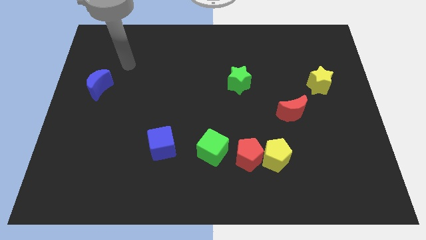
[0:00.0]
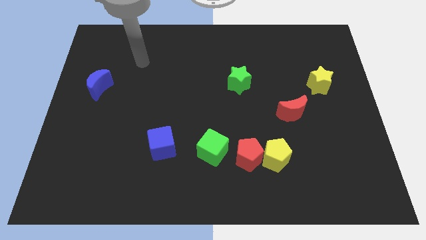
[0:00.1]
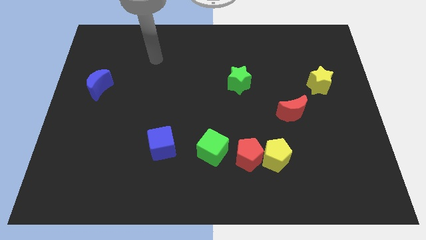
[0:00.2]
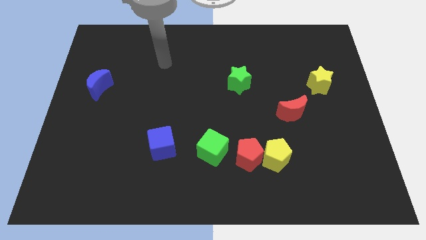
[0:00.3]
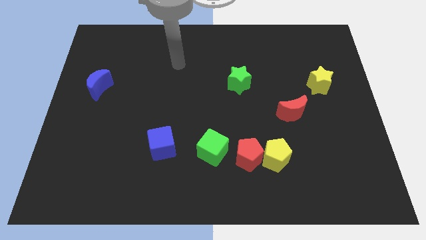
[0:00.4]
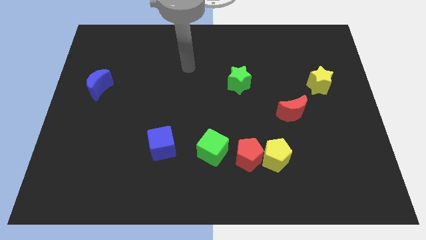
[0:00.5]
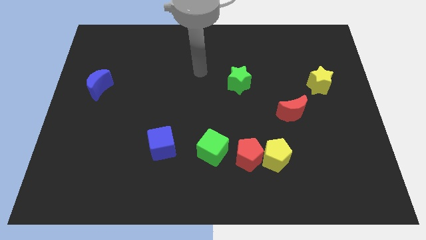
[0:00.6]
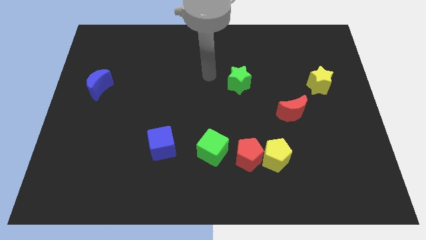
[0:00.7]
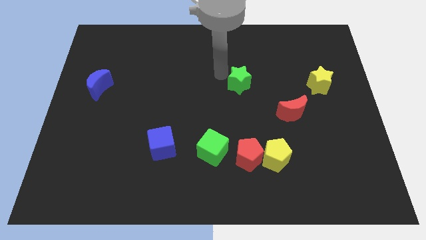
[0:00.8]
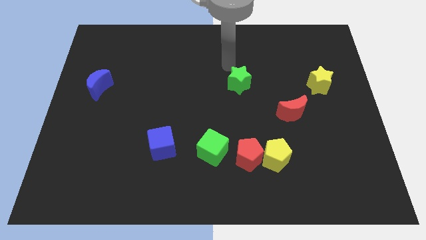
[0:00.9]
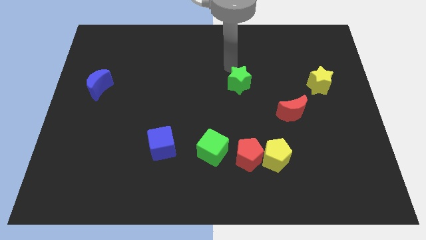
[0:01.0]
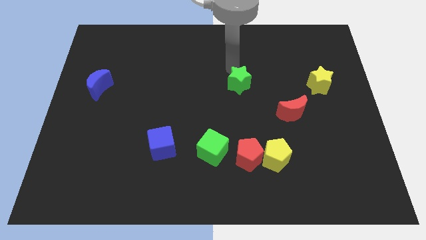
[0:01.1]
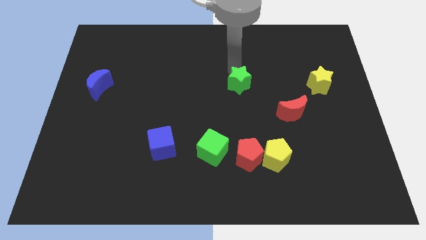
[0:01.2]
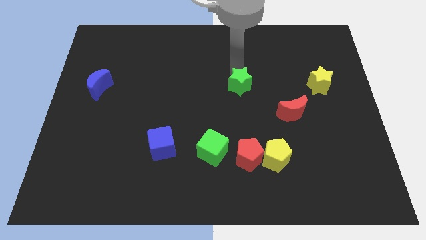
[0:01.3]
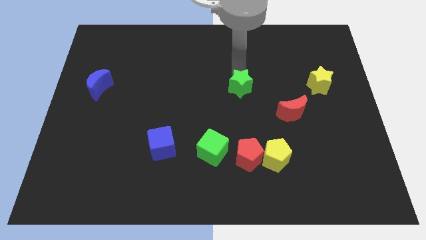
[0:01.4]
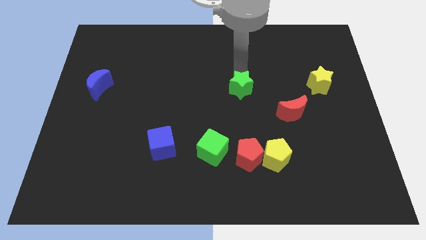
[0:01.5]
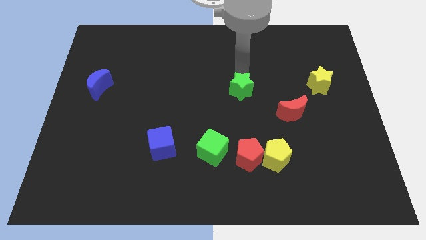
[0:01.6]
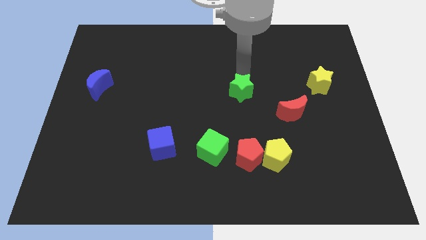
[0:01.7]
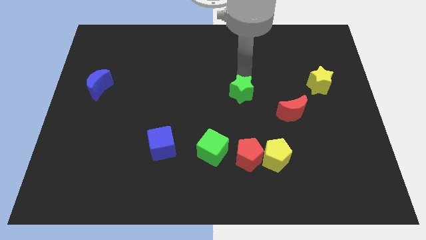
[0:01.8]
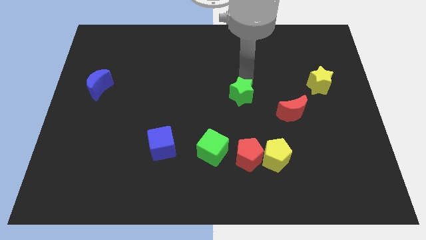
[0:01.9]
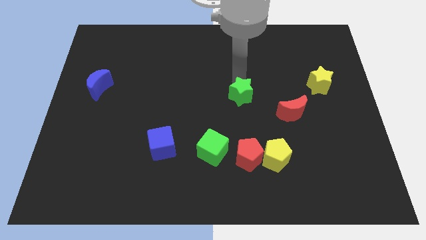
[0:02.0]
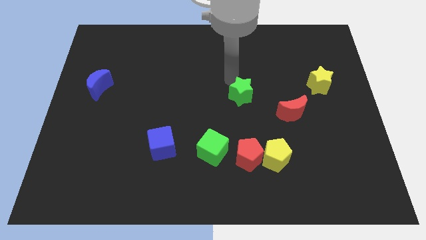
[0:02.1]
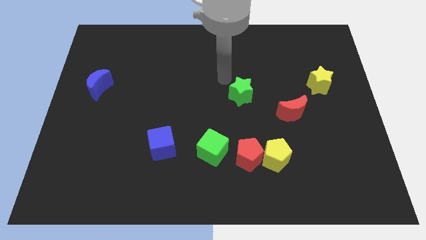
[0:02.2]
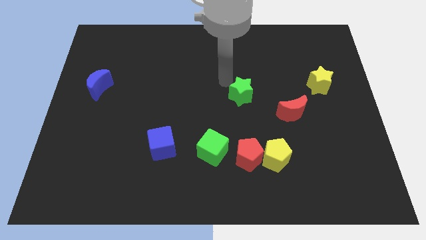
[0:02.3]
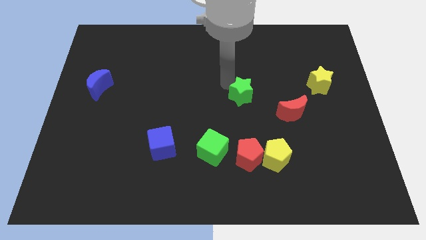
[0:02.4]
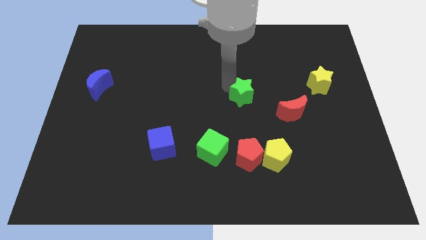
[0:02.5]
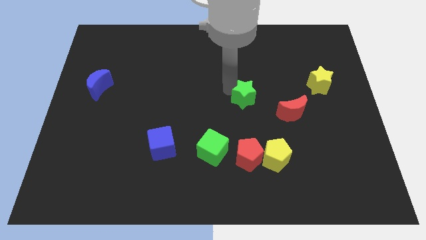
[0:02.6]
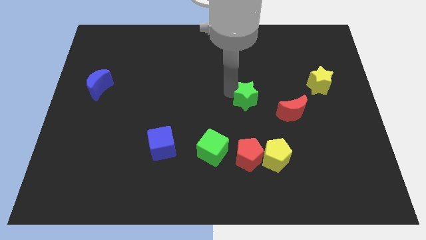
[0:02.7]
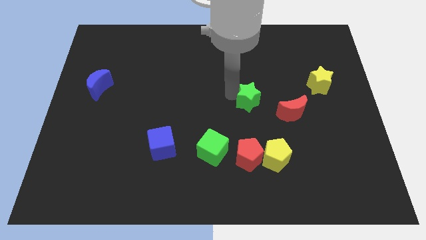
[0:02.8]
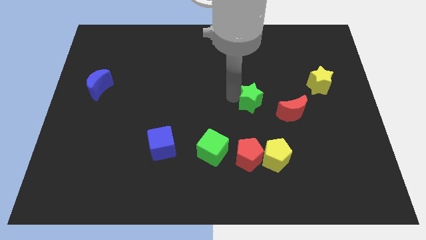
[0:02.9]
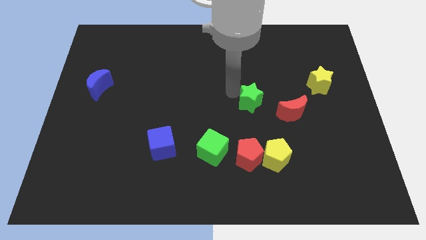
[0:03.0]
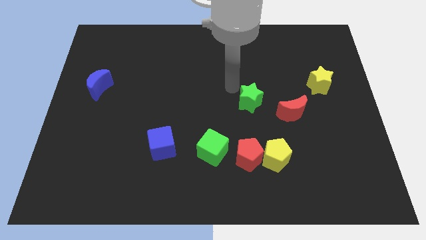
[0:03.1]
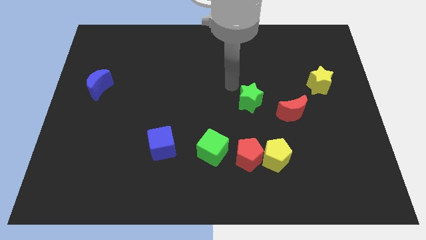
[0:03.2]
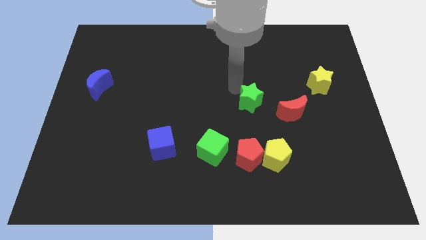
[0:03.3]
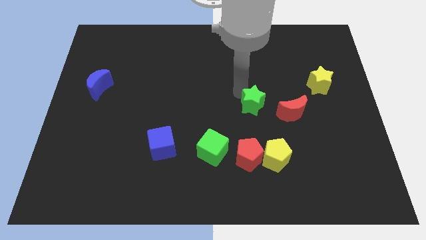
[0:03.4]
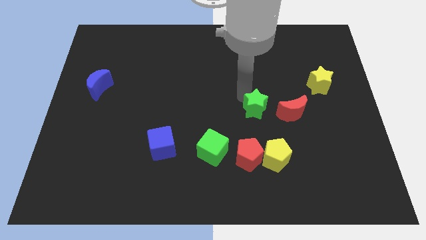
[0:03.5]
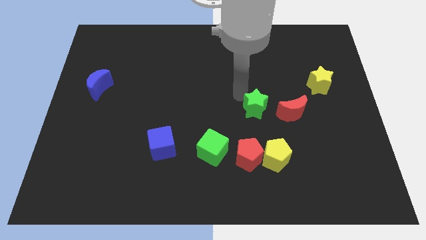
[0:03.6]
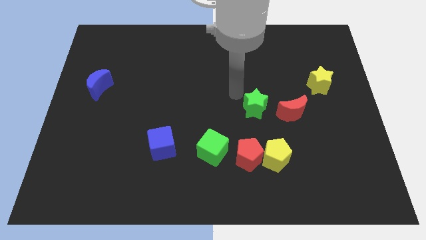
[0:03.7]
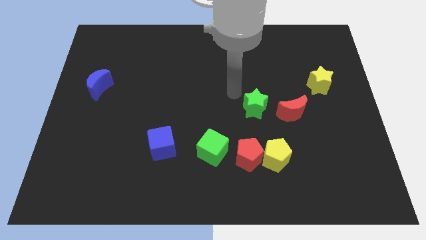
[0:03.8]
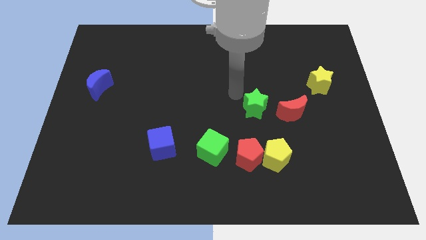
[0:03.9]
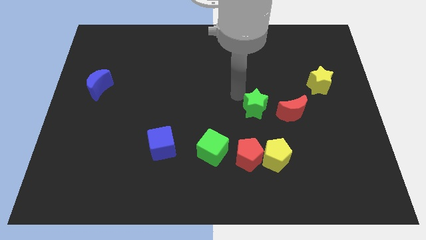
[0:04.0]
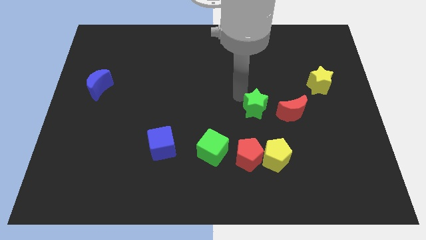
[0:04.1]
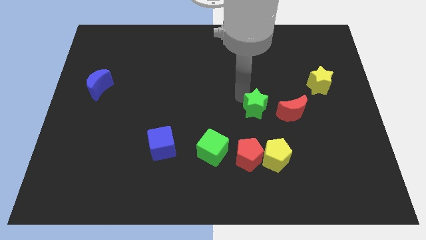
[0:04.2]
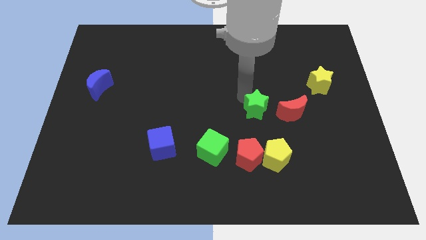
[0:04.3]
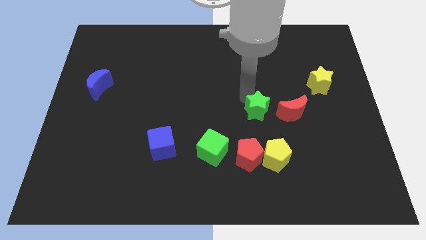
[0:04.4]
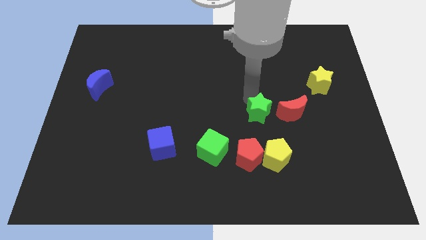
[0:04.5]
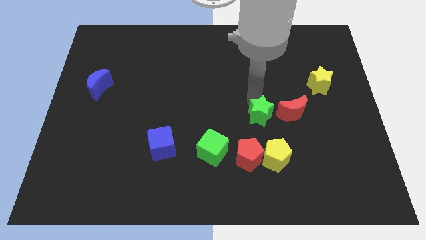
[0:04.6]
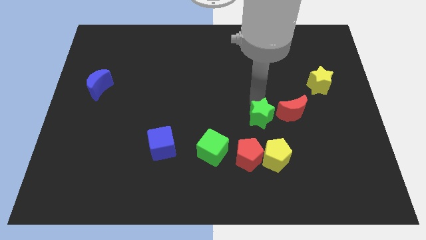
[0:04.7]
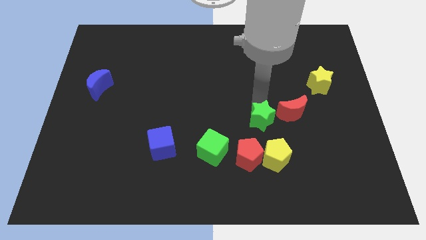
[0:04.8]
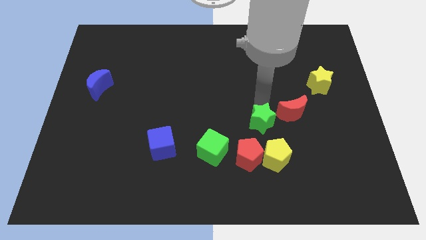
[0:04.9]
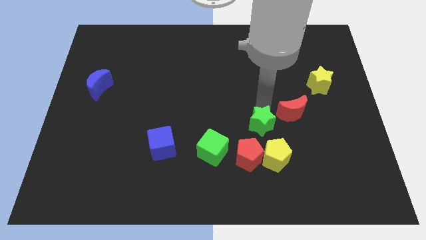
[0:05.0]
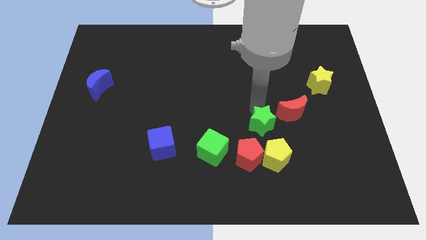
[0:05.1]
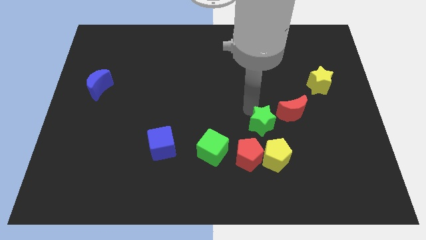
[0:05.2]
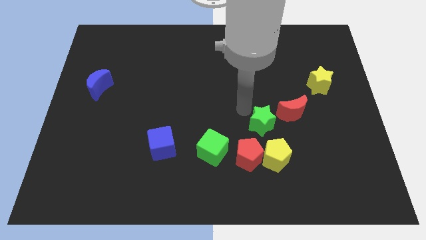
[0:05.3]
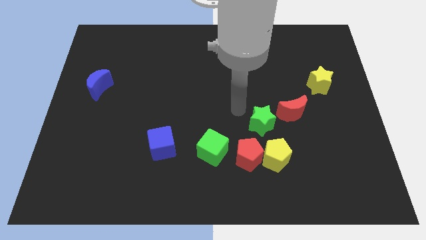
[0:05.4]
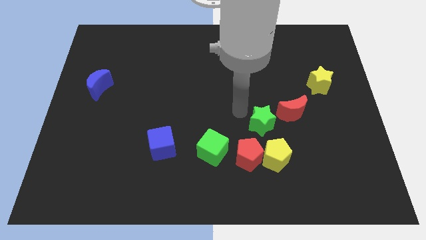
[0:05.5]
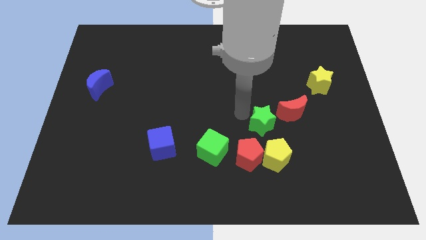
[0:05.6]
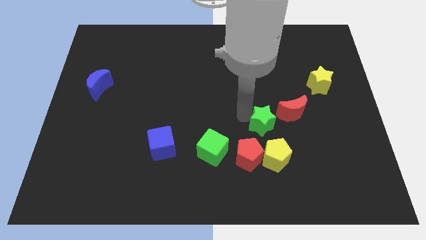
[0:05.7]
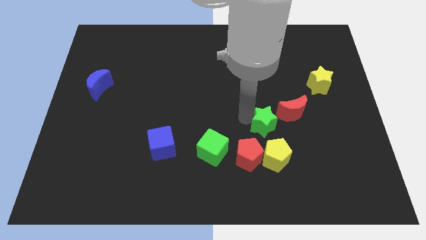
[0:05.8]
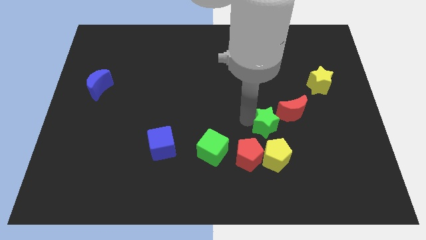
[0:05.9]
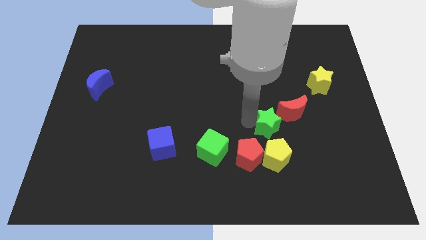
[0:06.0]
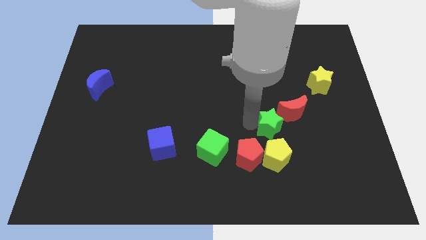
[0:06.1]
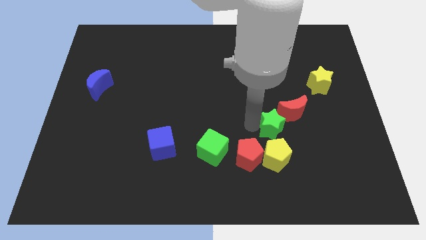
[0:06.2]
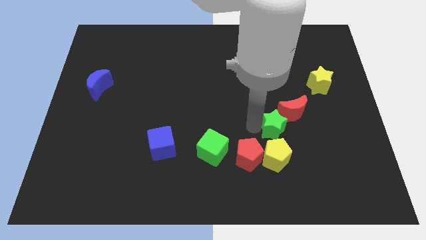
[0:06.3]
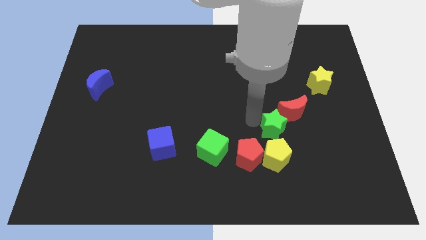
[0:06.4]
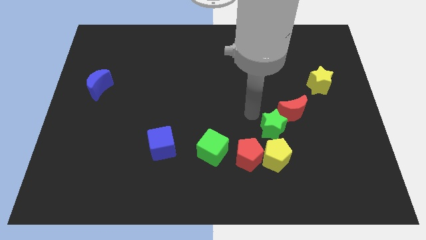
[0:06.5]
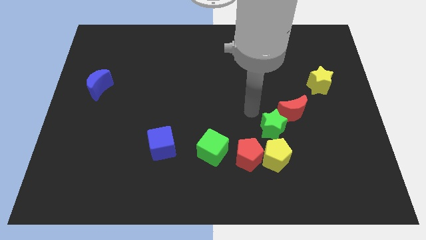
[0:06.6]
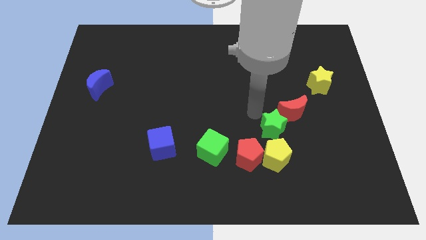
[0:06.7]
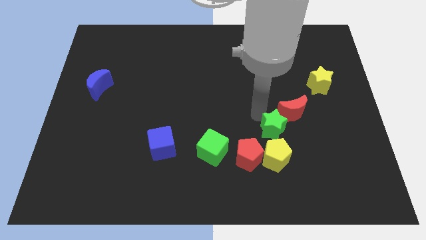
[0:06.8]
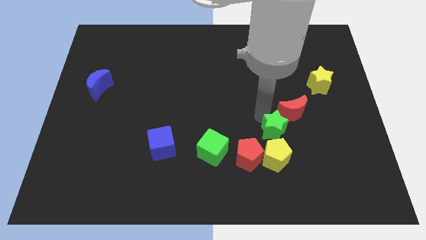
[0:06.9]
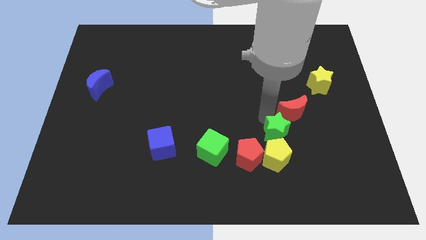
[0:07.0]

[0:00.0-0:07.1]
push the green star below the red moon
